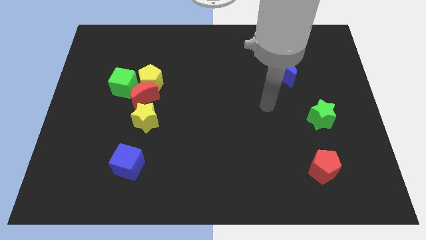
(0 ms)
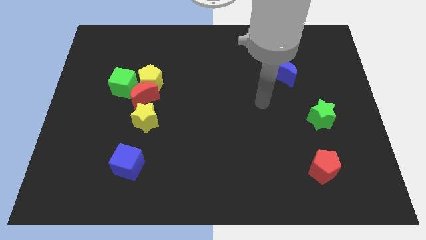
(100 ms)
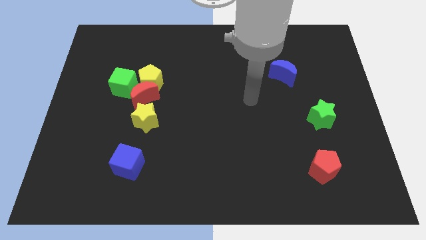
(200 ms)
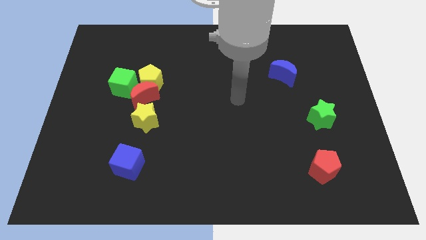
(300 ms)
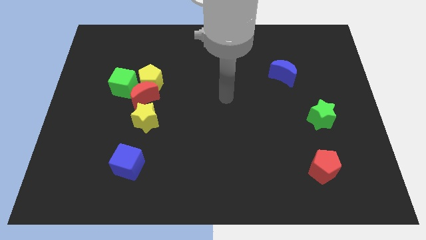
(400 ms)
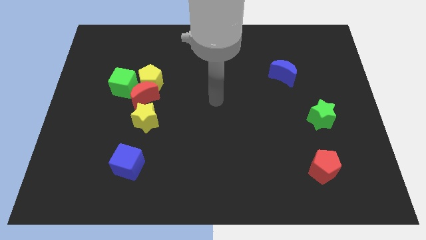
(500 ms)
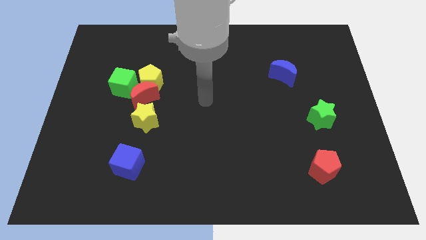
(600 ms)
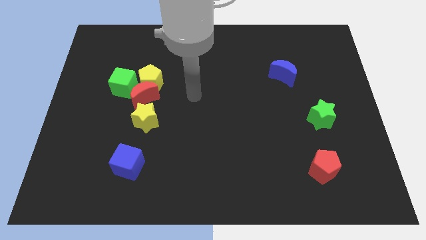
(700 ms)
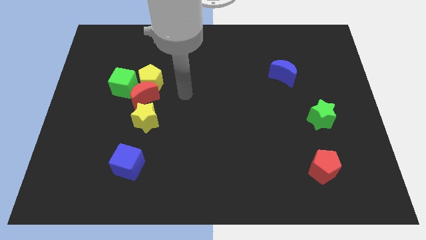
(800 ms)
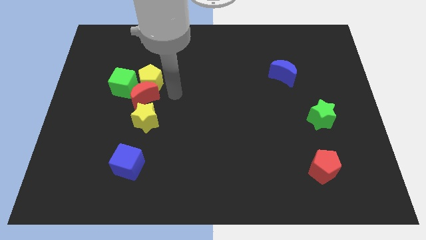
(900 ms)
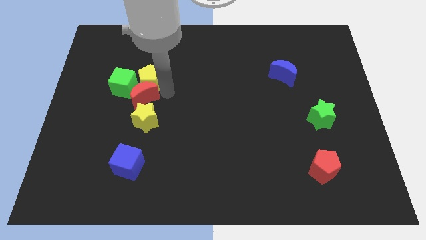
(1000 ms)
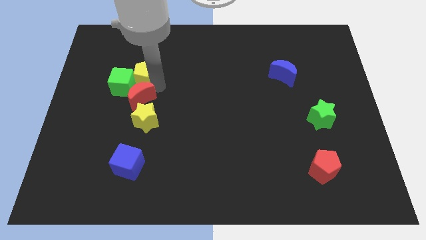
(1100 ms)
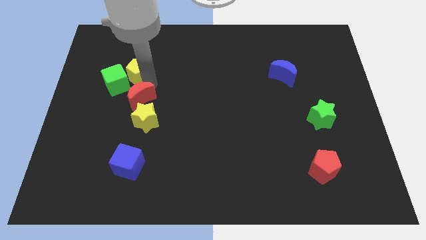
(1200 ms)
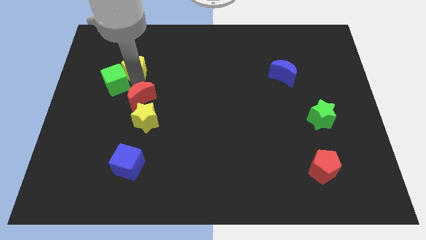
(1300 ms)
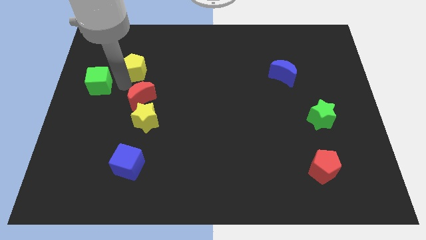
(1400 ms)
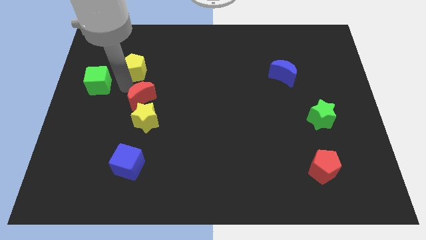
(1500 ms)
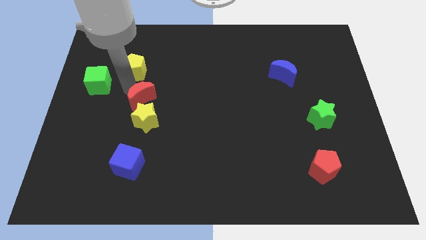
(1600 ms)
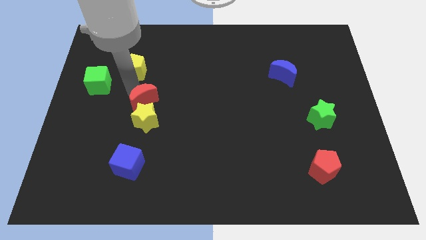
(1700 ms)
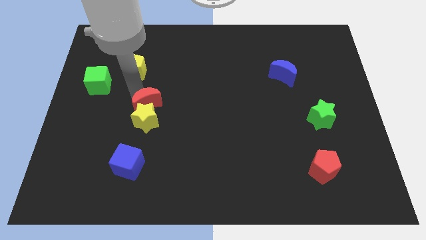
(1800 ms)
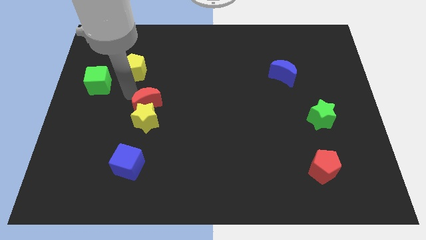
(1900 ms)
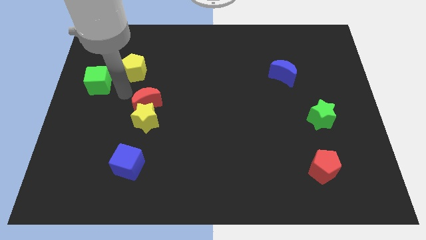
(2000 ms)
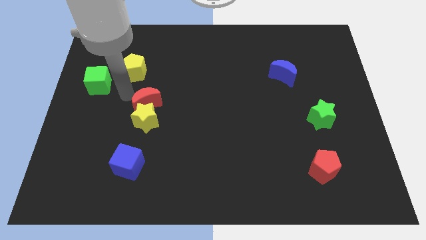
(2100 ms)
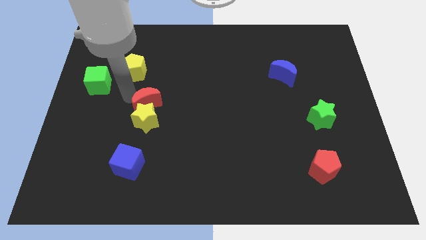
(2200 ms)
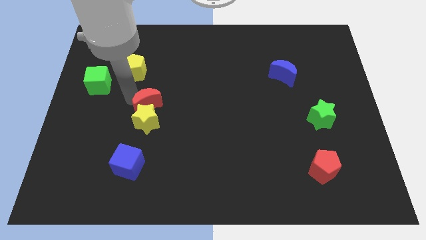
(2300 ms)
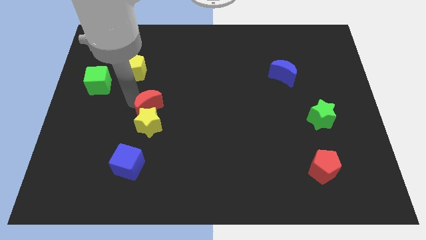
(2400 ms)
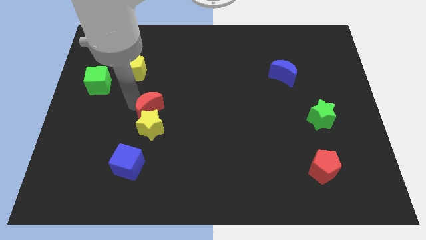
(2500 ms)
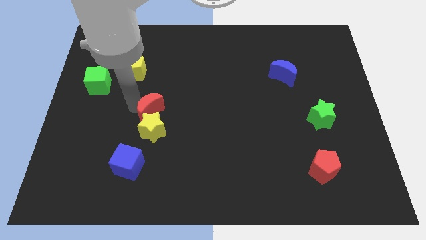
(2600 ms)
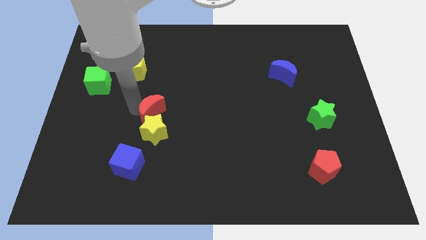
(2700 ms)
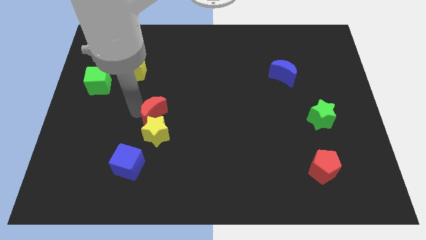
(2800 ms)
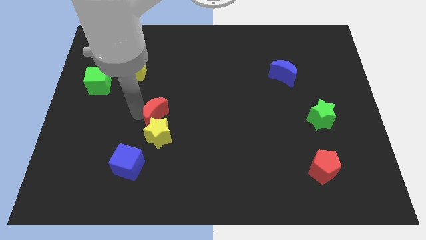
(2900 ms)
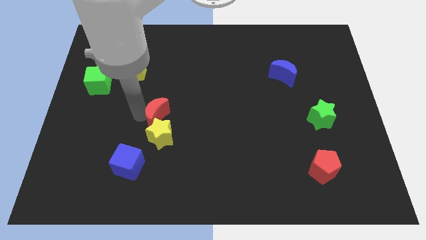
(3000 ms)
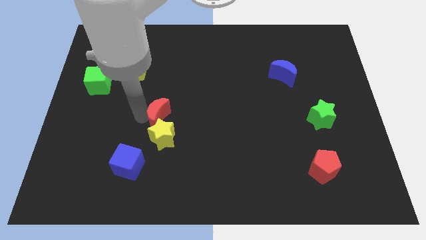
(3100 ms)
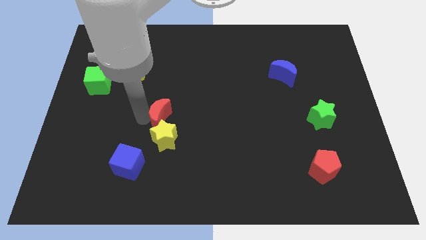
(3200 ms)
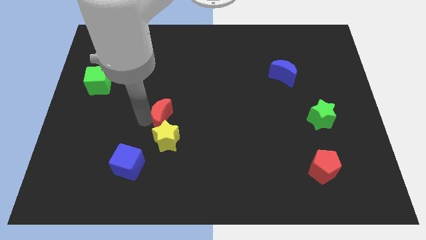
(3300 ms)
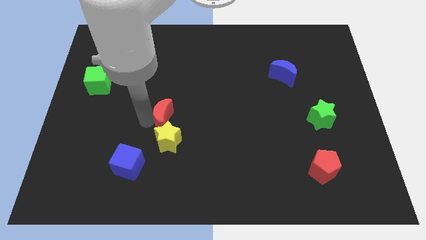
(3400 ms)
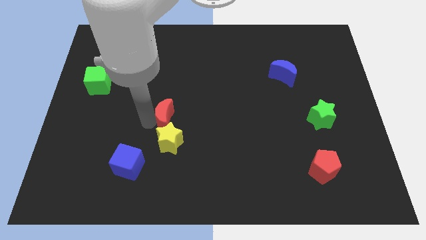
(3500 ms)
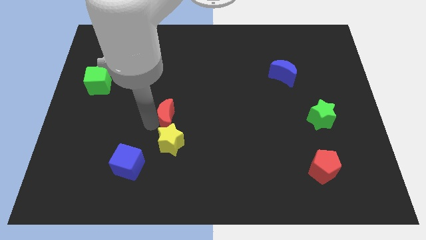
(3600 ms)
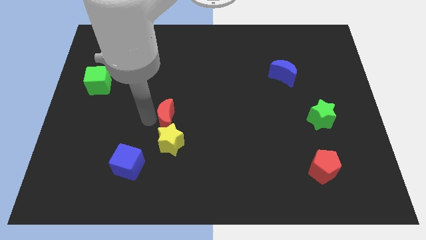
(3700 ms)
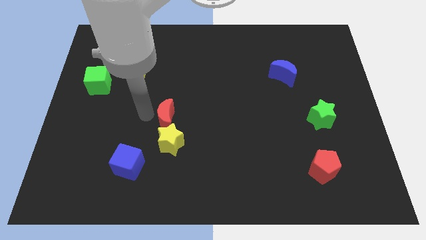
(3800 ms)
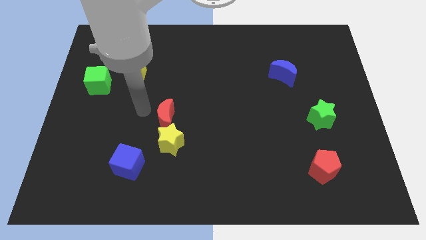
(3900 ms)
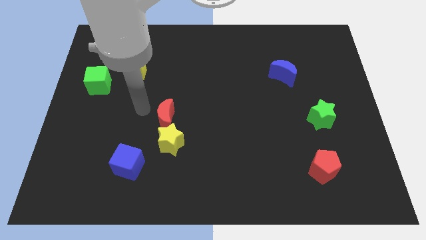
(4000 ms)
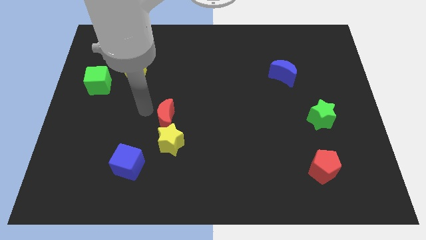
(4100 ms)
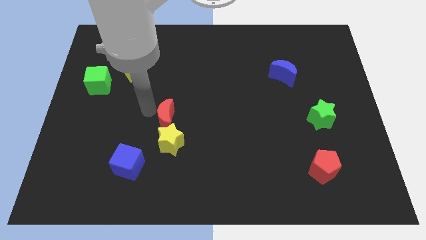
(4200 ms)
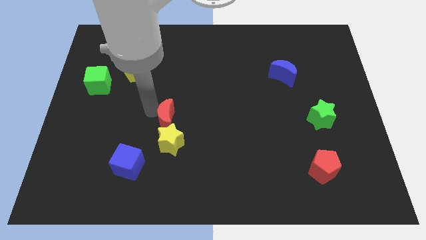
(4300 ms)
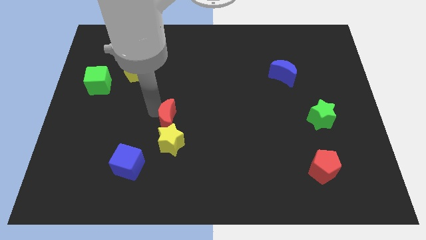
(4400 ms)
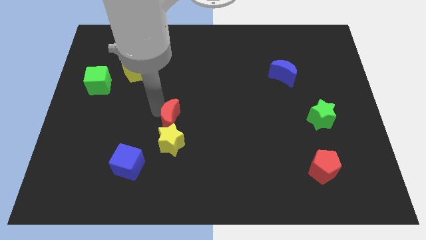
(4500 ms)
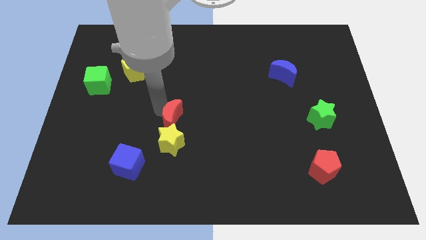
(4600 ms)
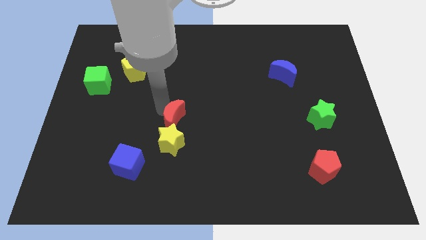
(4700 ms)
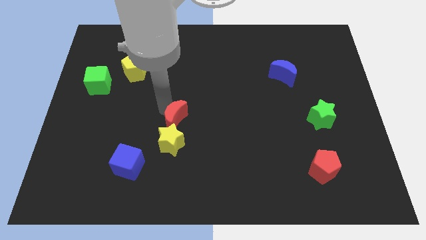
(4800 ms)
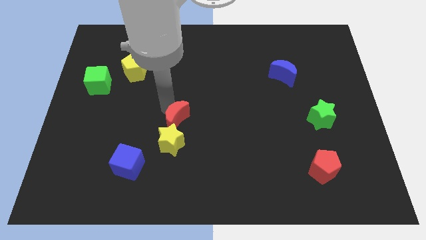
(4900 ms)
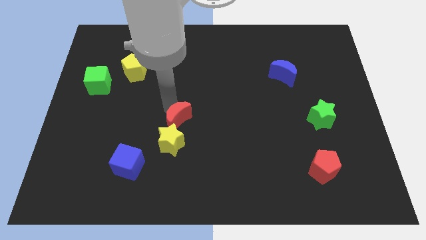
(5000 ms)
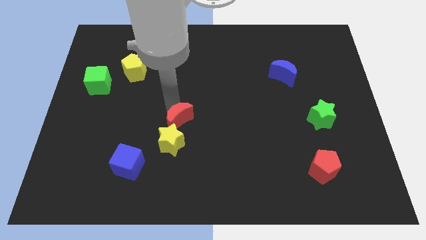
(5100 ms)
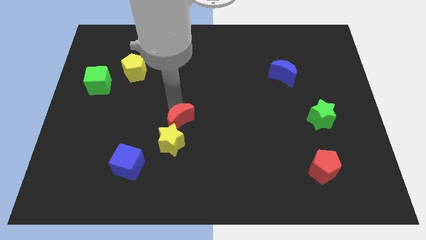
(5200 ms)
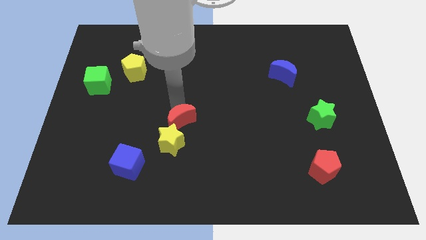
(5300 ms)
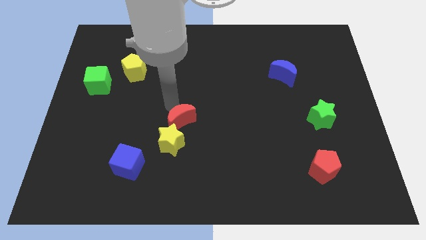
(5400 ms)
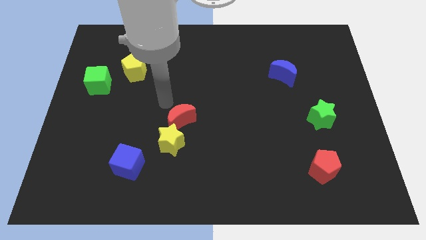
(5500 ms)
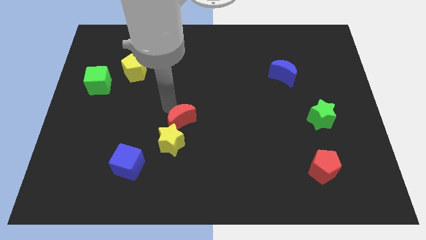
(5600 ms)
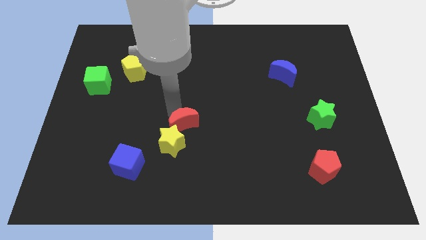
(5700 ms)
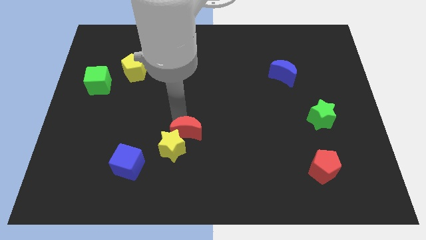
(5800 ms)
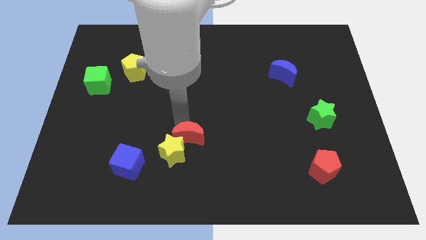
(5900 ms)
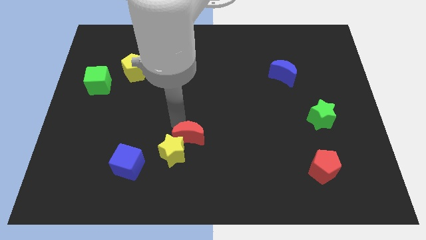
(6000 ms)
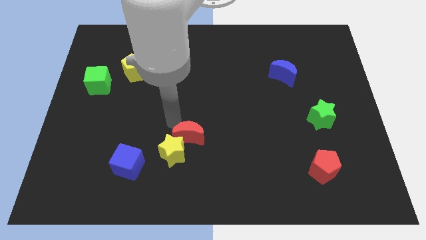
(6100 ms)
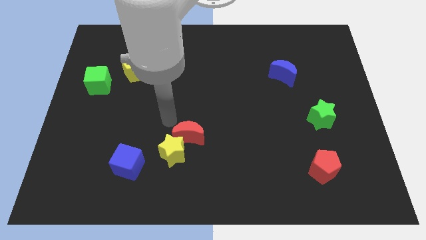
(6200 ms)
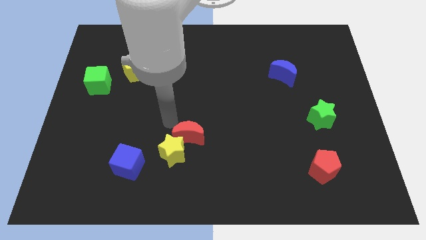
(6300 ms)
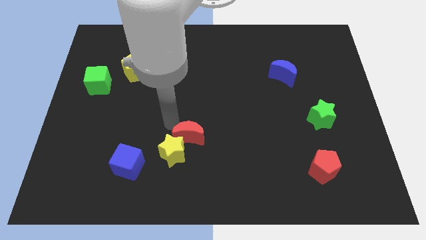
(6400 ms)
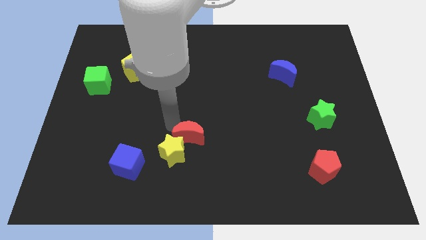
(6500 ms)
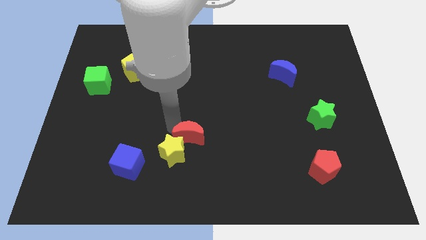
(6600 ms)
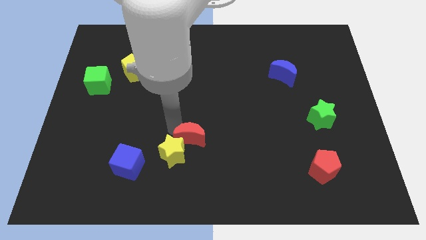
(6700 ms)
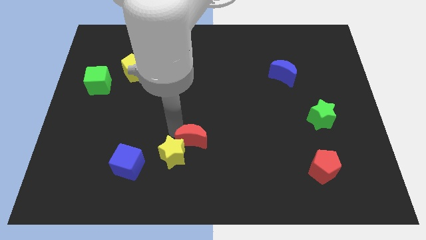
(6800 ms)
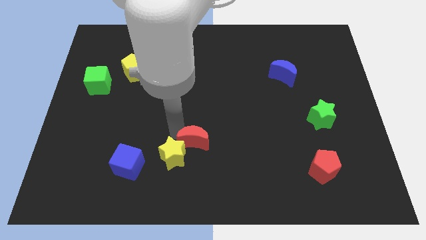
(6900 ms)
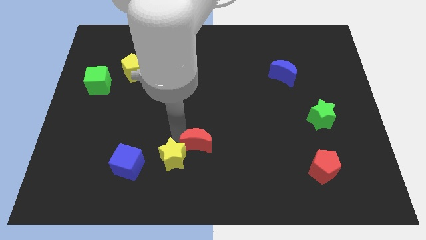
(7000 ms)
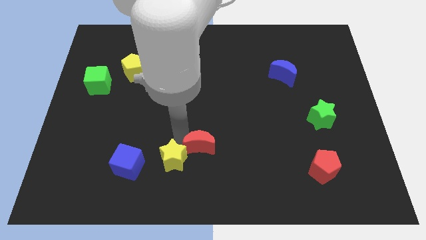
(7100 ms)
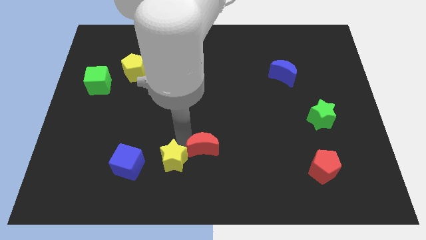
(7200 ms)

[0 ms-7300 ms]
slide the red moon down and right diagonally

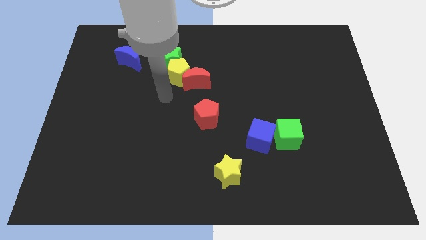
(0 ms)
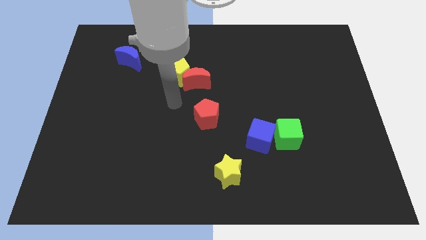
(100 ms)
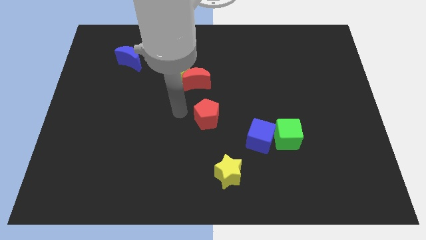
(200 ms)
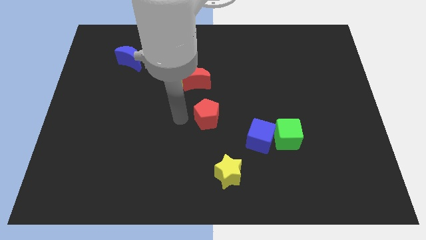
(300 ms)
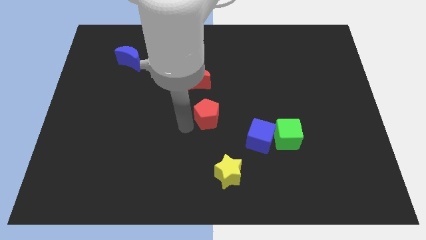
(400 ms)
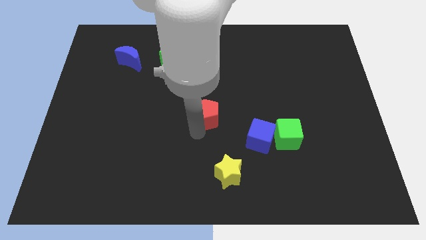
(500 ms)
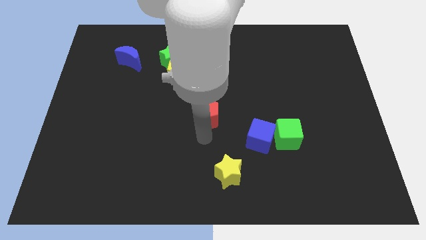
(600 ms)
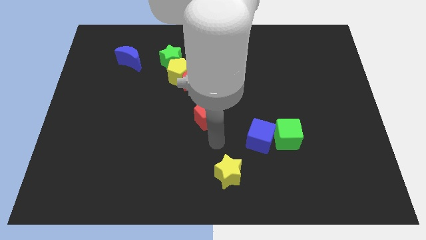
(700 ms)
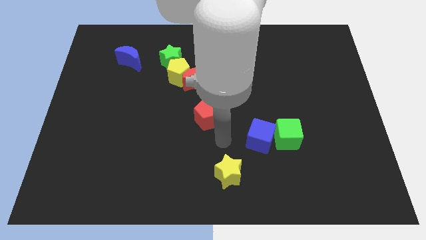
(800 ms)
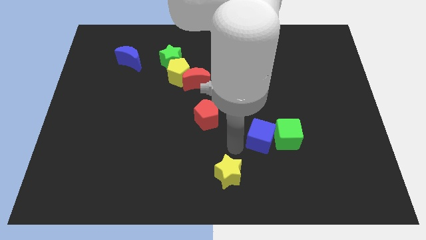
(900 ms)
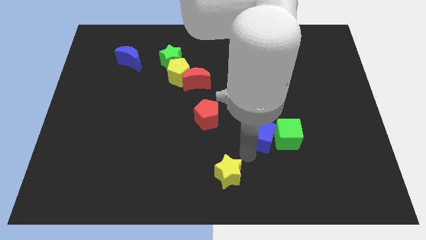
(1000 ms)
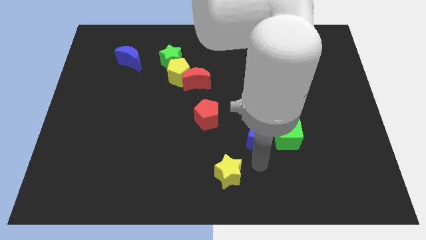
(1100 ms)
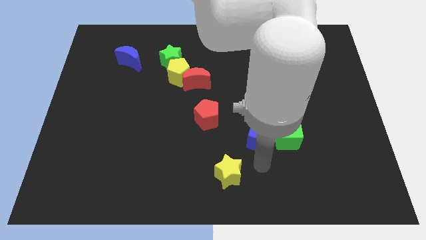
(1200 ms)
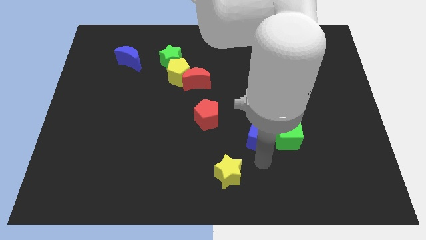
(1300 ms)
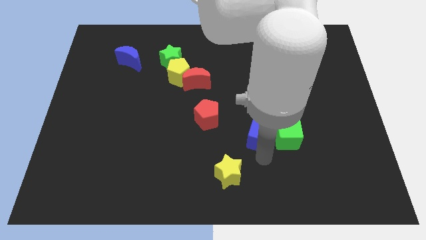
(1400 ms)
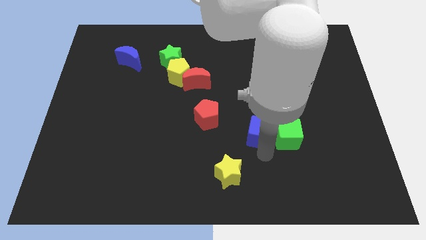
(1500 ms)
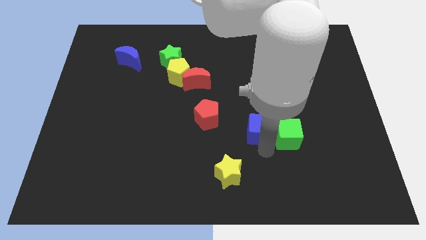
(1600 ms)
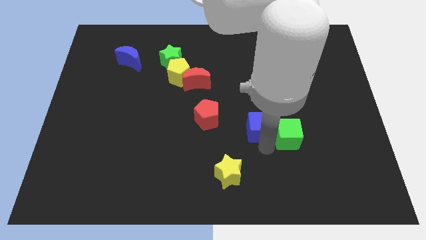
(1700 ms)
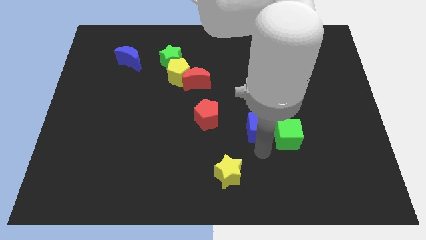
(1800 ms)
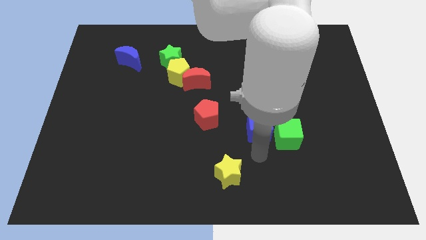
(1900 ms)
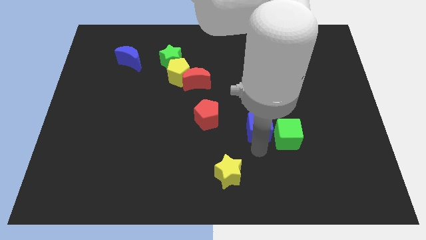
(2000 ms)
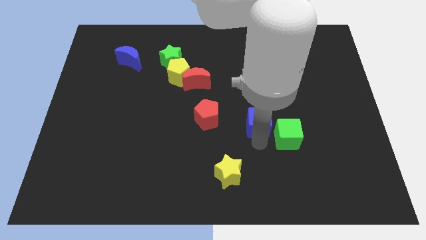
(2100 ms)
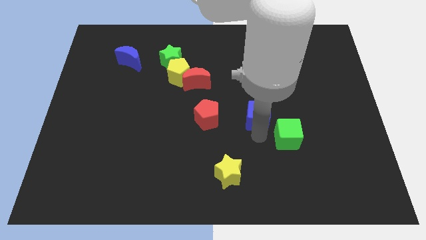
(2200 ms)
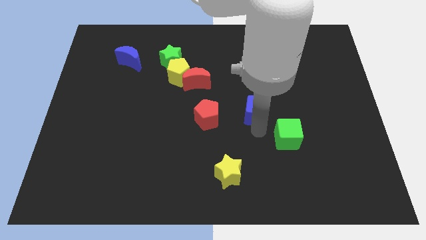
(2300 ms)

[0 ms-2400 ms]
slightly move the blue cube up
